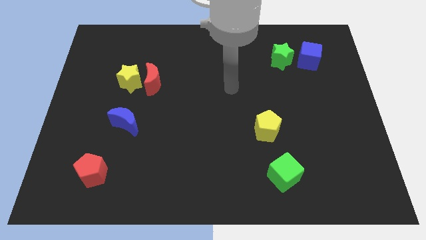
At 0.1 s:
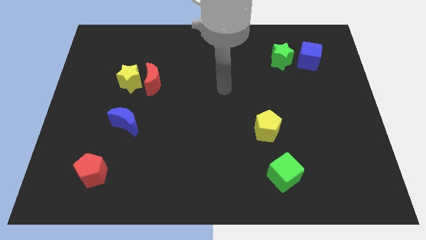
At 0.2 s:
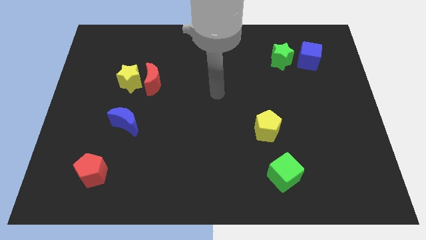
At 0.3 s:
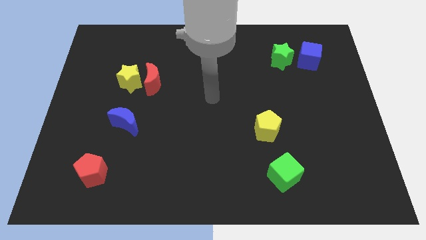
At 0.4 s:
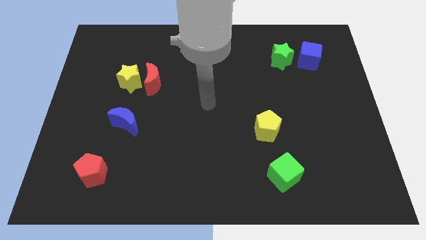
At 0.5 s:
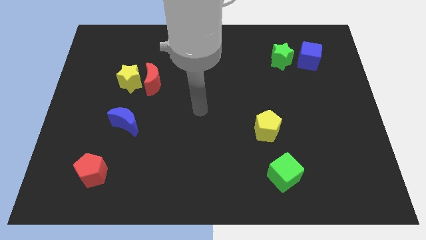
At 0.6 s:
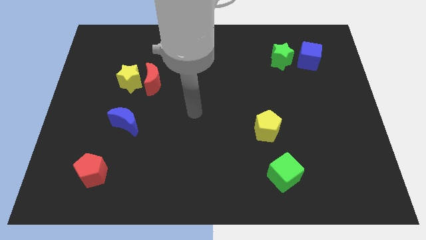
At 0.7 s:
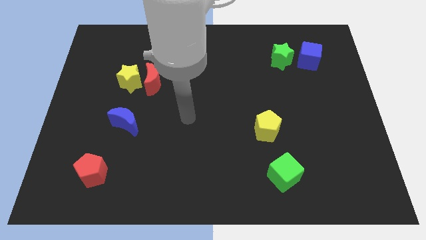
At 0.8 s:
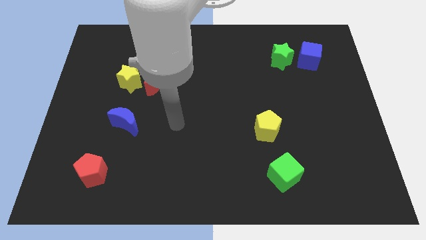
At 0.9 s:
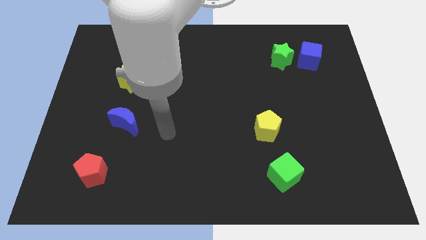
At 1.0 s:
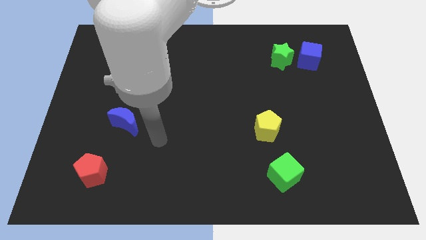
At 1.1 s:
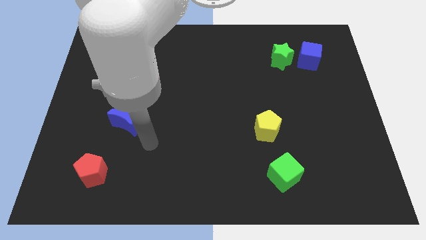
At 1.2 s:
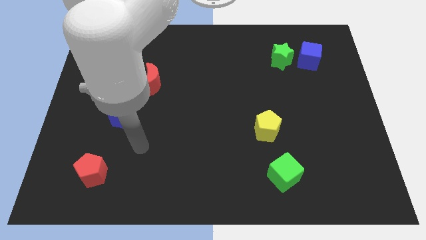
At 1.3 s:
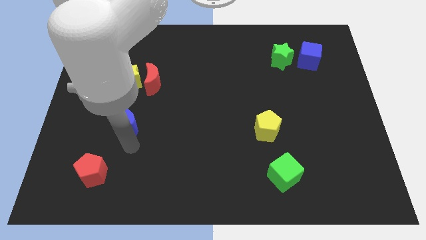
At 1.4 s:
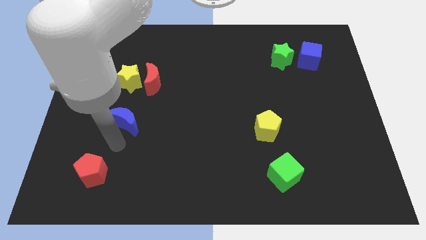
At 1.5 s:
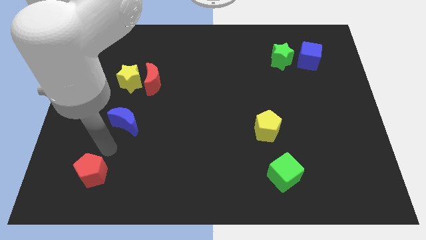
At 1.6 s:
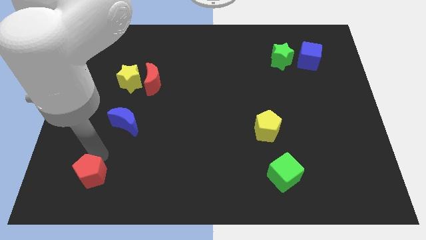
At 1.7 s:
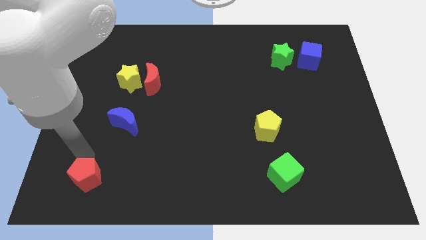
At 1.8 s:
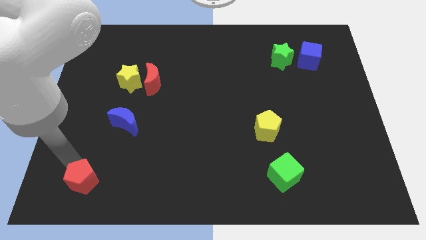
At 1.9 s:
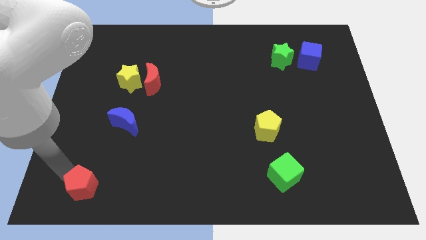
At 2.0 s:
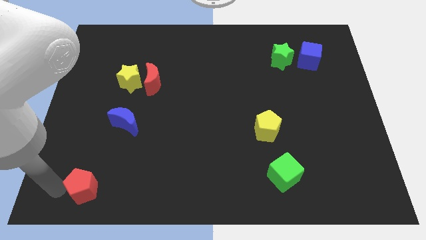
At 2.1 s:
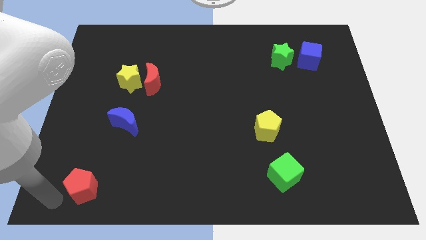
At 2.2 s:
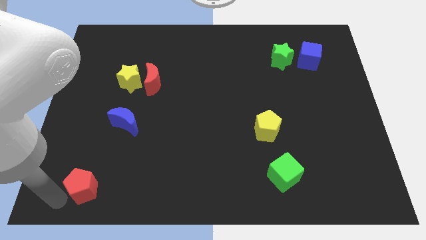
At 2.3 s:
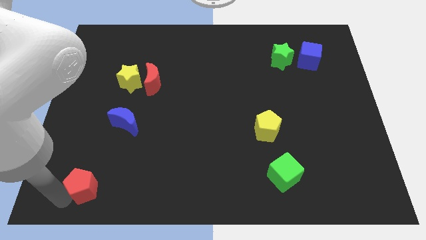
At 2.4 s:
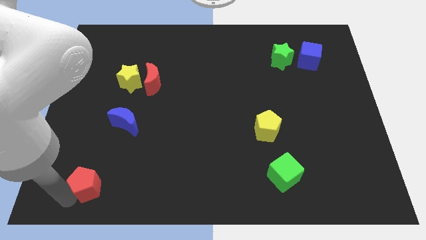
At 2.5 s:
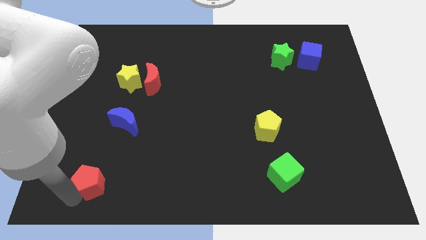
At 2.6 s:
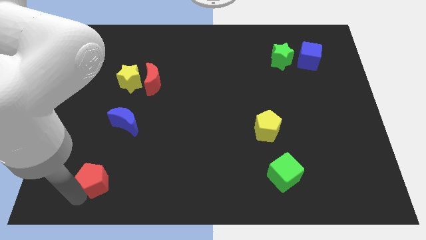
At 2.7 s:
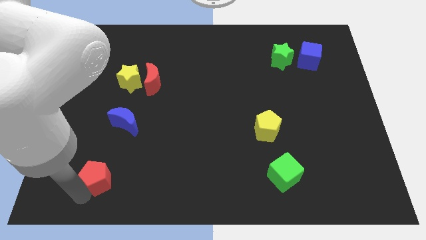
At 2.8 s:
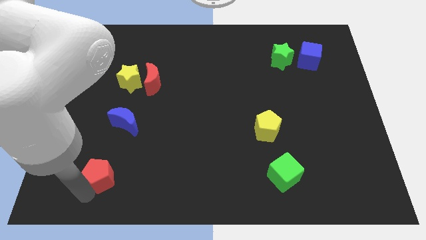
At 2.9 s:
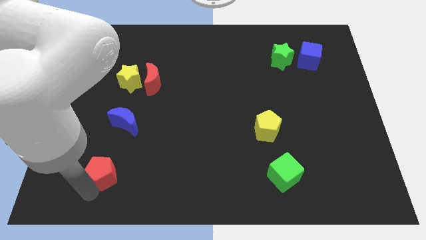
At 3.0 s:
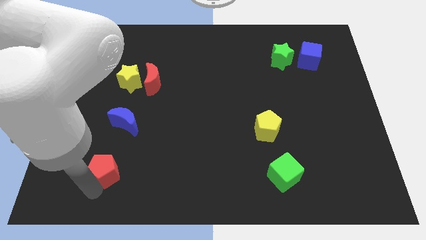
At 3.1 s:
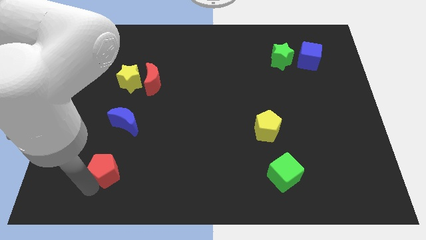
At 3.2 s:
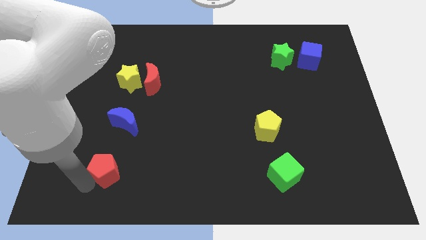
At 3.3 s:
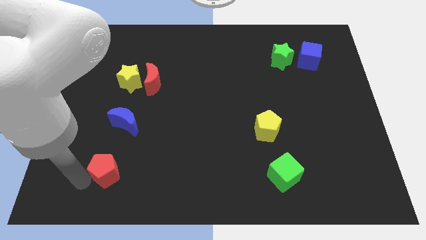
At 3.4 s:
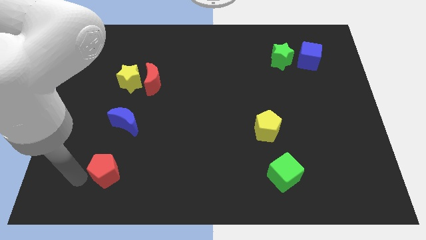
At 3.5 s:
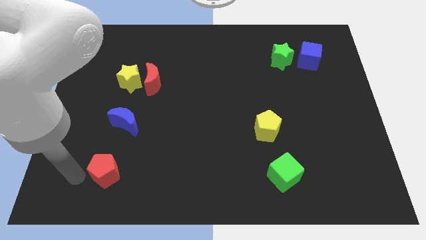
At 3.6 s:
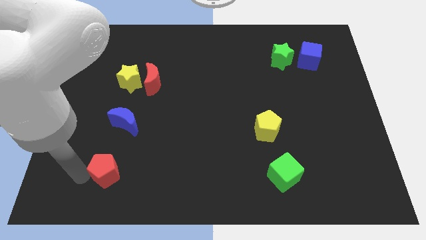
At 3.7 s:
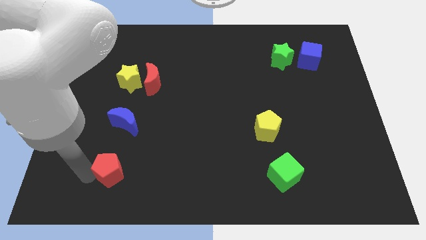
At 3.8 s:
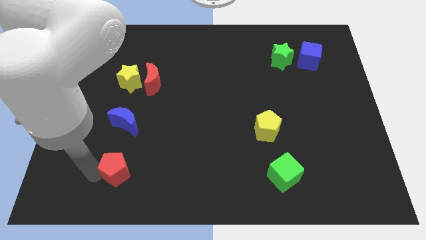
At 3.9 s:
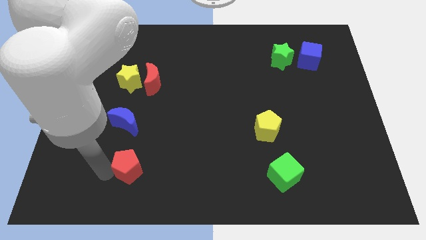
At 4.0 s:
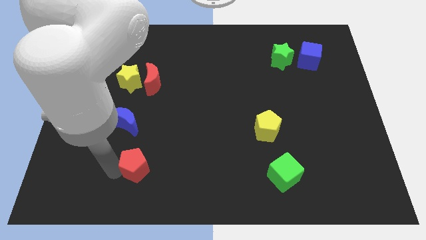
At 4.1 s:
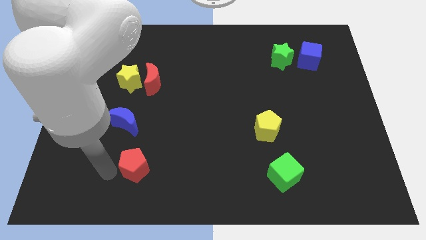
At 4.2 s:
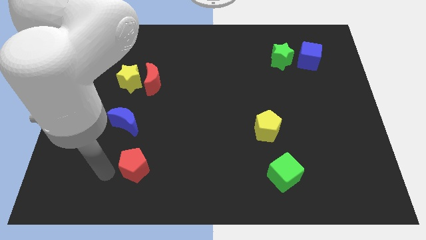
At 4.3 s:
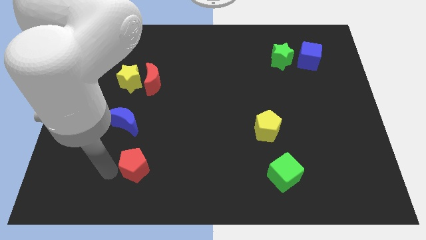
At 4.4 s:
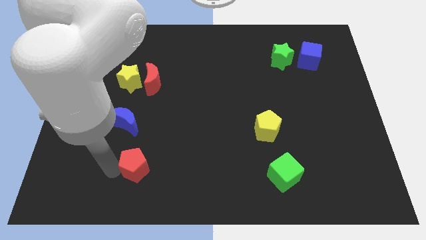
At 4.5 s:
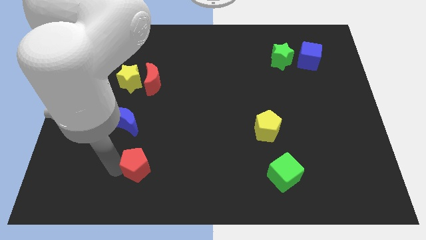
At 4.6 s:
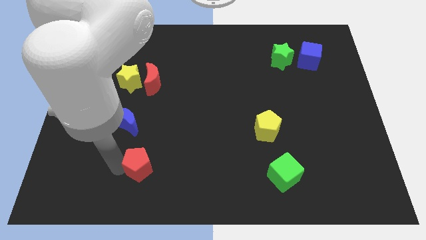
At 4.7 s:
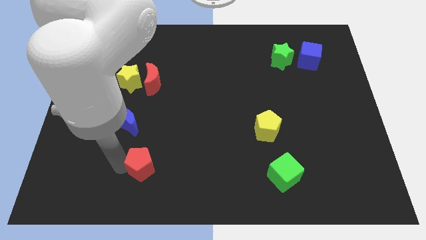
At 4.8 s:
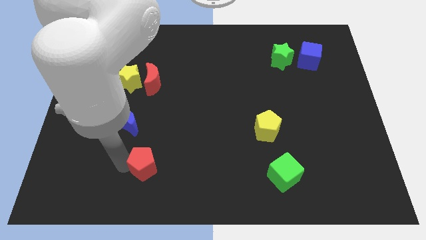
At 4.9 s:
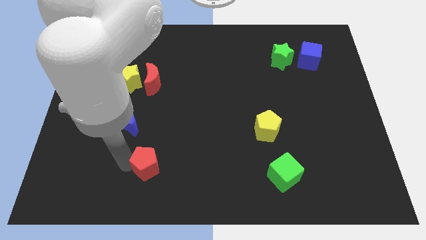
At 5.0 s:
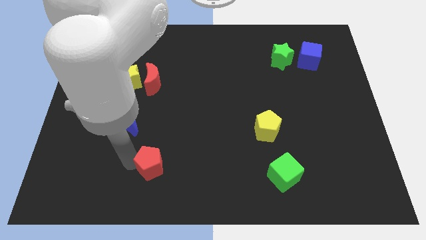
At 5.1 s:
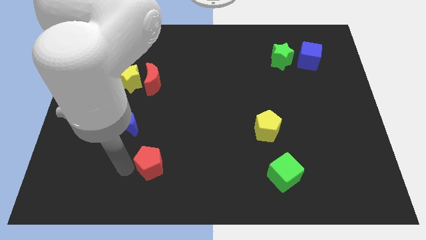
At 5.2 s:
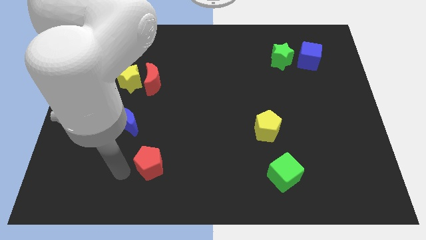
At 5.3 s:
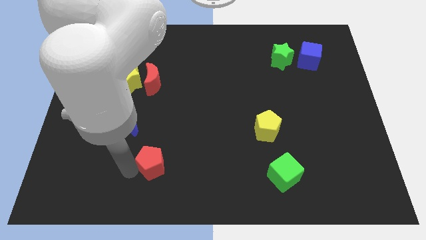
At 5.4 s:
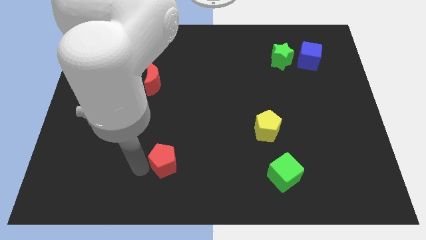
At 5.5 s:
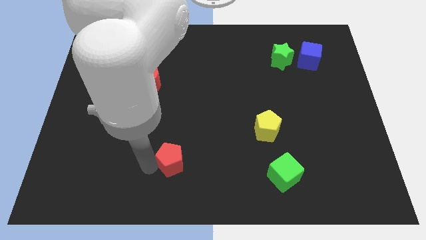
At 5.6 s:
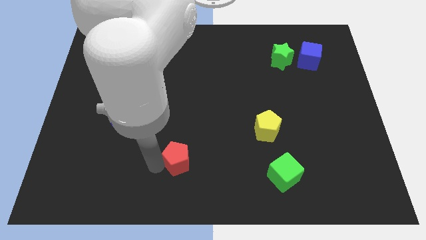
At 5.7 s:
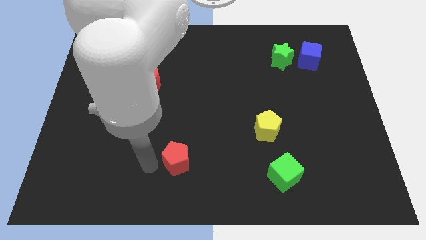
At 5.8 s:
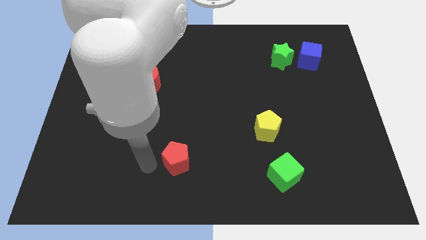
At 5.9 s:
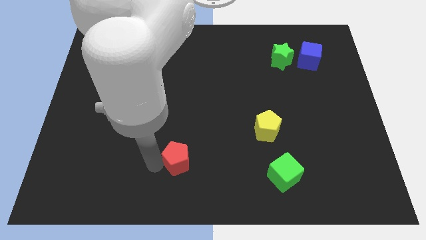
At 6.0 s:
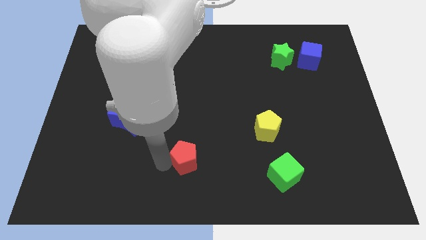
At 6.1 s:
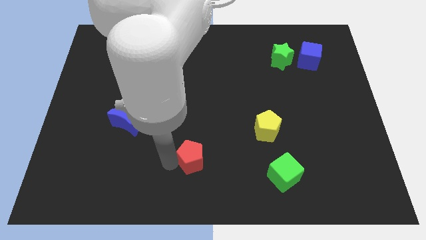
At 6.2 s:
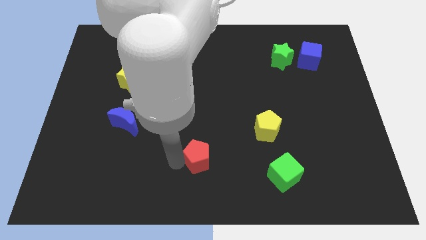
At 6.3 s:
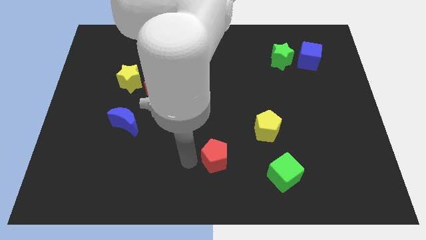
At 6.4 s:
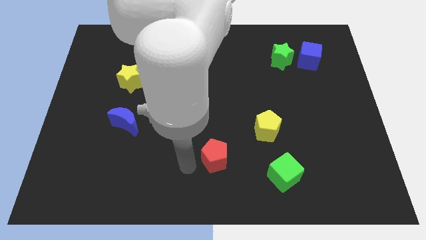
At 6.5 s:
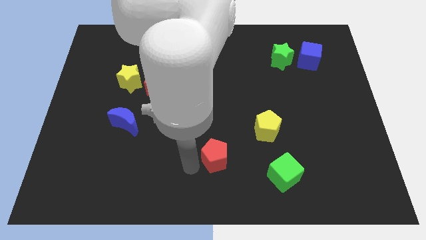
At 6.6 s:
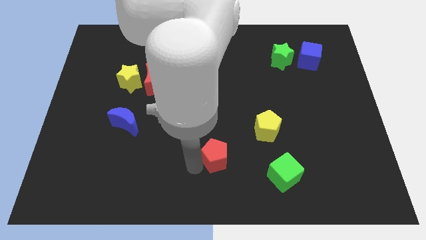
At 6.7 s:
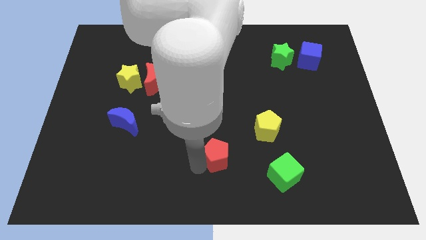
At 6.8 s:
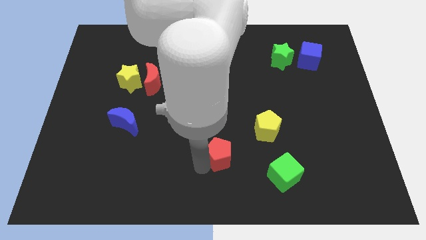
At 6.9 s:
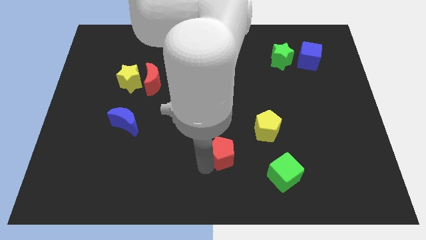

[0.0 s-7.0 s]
push the red pentagon diagonally down and to the left of the yellow pentagon

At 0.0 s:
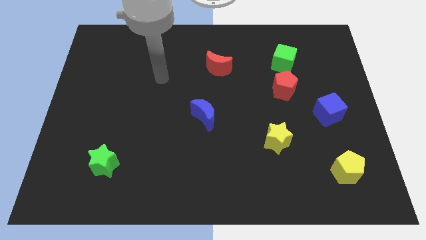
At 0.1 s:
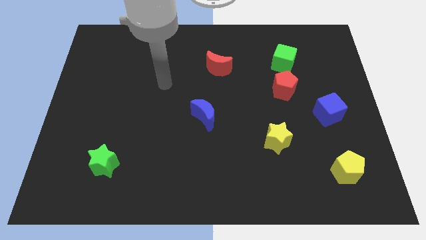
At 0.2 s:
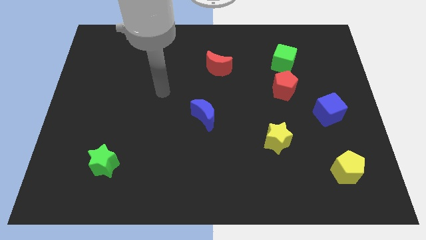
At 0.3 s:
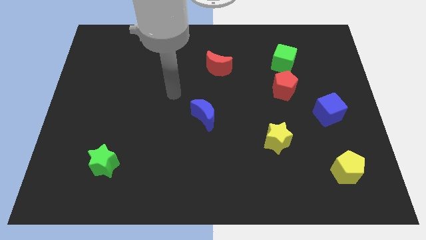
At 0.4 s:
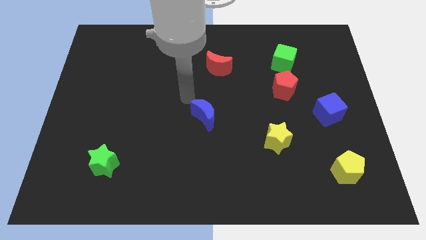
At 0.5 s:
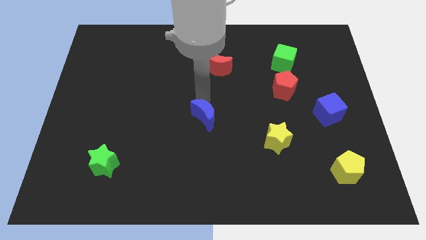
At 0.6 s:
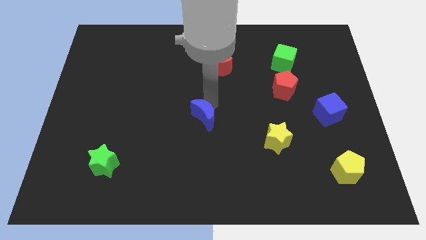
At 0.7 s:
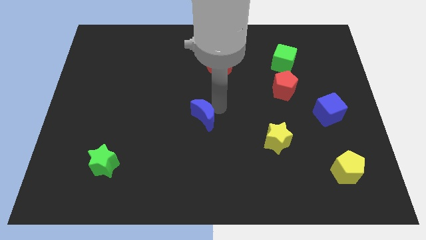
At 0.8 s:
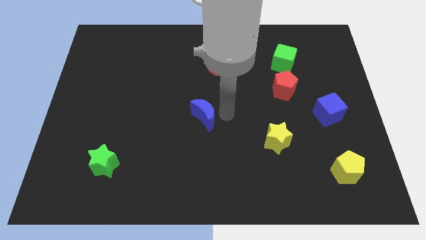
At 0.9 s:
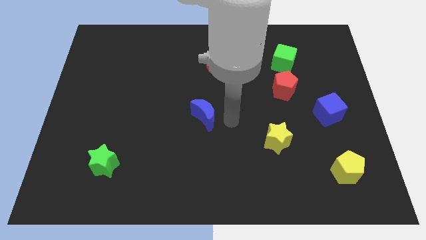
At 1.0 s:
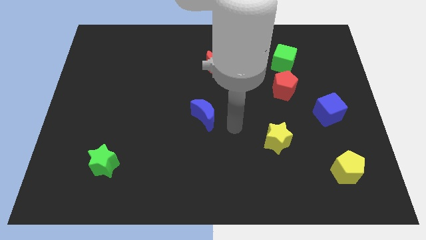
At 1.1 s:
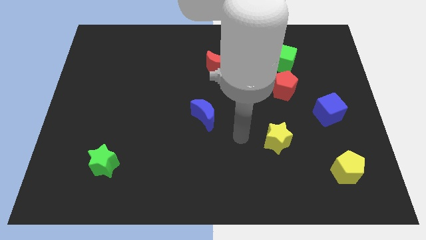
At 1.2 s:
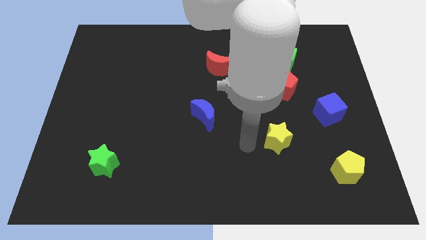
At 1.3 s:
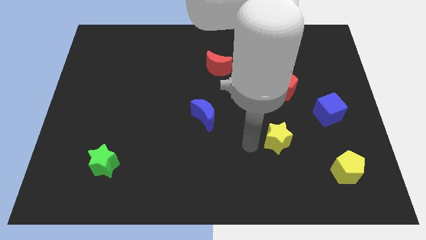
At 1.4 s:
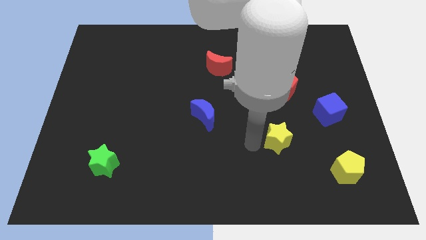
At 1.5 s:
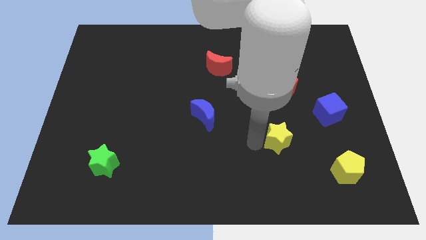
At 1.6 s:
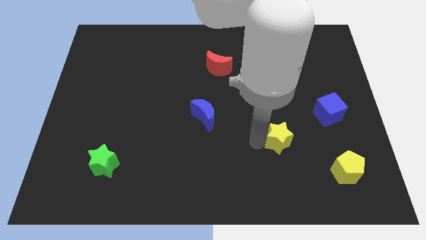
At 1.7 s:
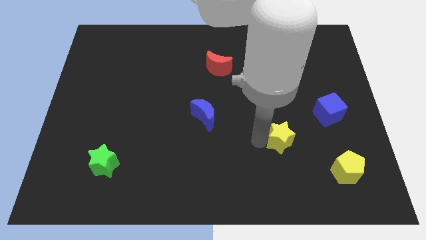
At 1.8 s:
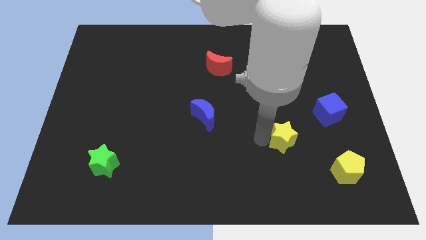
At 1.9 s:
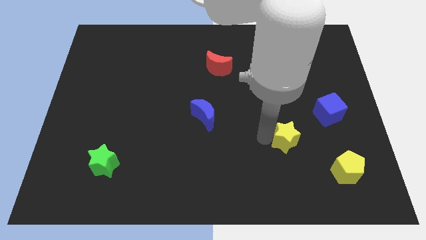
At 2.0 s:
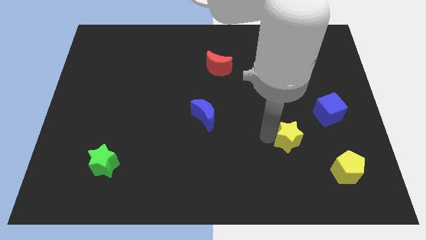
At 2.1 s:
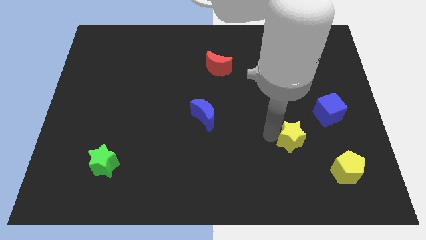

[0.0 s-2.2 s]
move the yellow star diagonally down and to the left of the blue cube
